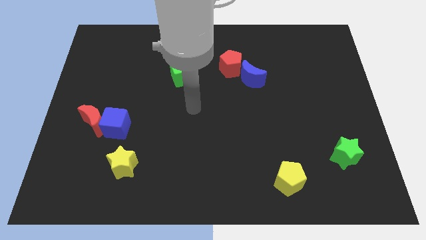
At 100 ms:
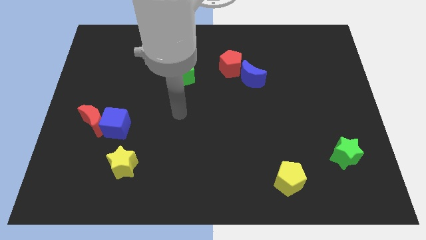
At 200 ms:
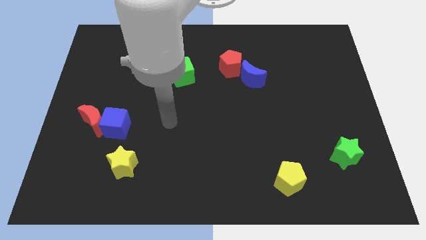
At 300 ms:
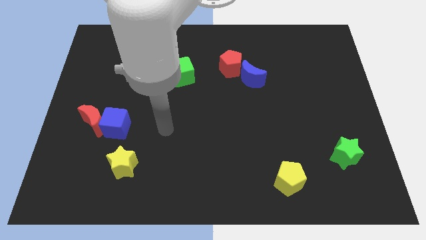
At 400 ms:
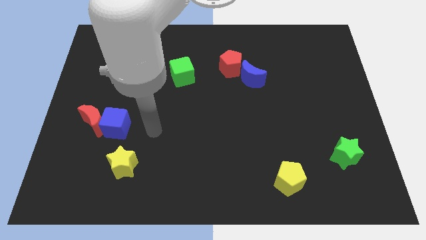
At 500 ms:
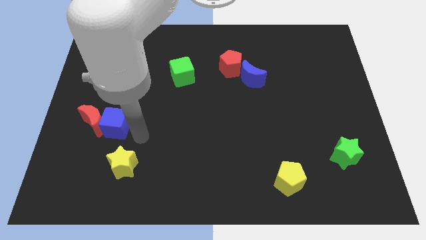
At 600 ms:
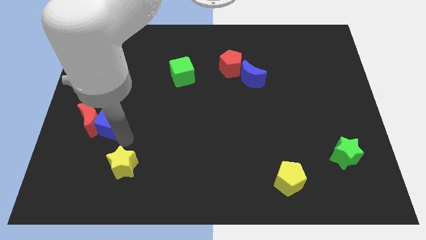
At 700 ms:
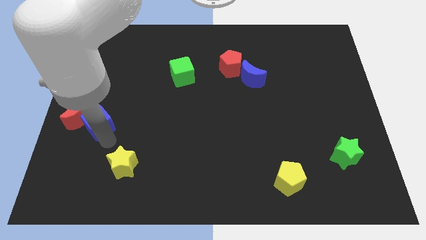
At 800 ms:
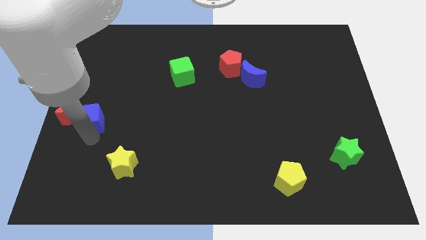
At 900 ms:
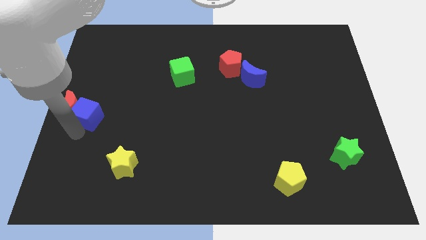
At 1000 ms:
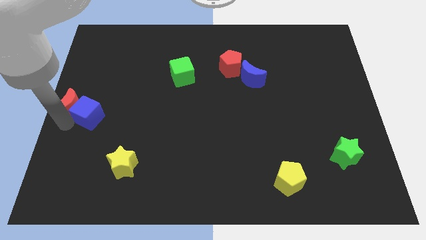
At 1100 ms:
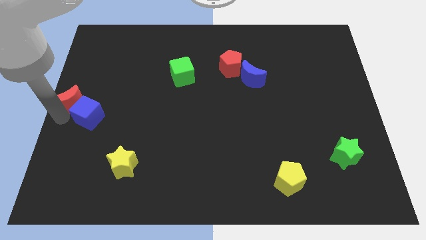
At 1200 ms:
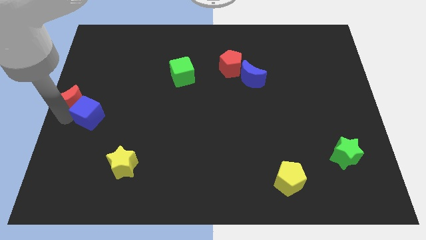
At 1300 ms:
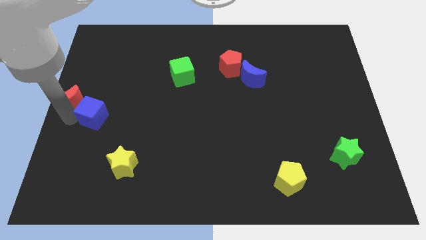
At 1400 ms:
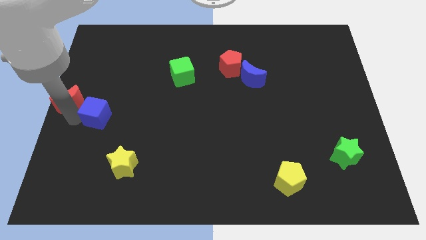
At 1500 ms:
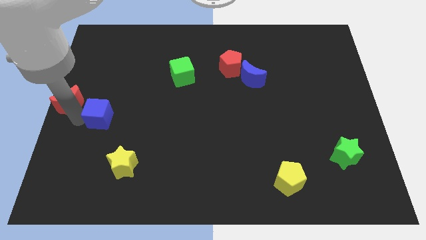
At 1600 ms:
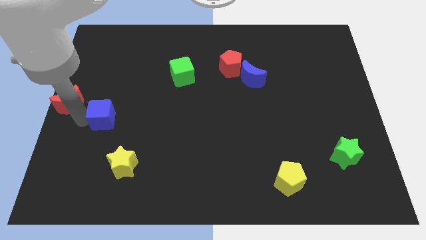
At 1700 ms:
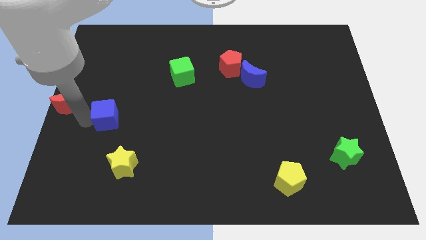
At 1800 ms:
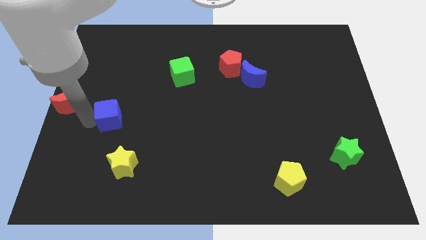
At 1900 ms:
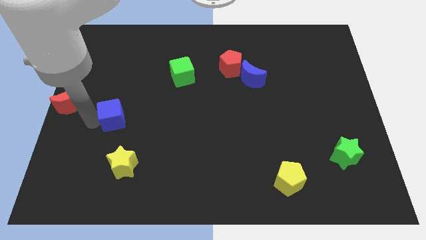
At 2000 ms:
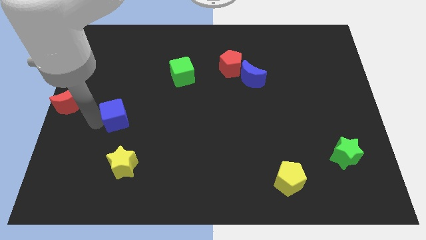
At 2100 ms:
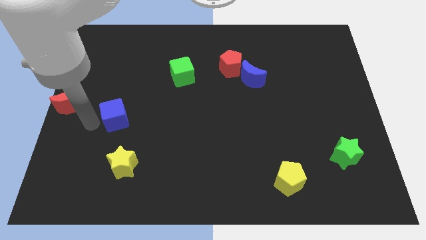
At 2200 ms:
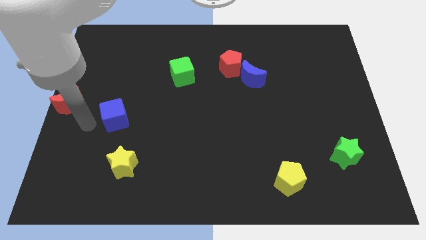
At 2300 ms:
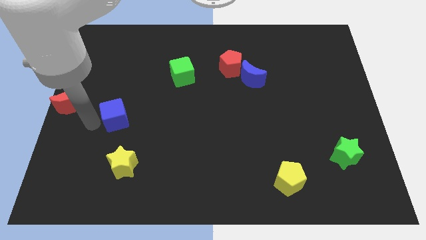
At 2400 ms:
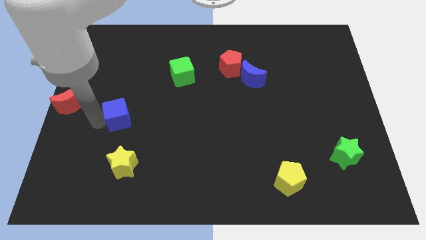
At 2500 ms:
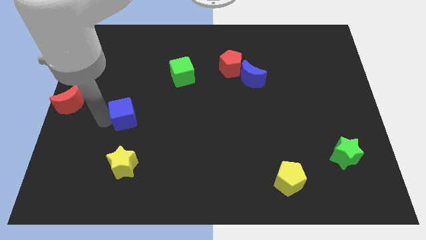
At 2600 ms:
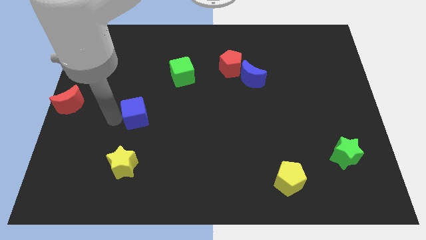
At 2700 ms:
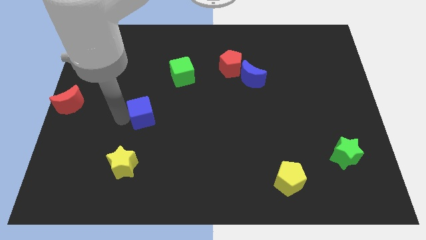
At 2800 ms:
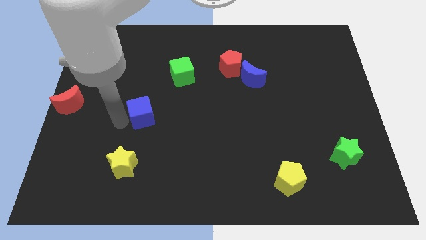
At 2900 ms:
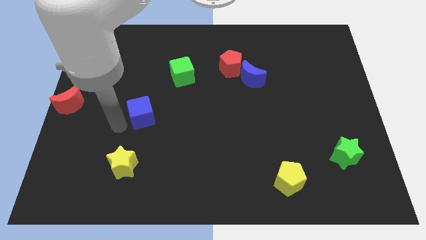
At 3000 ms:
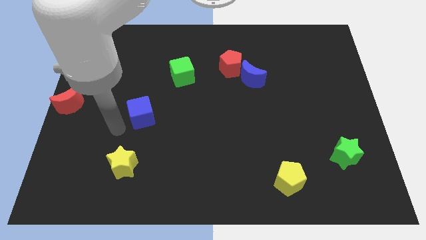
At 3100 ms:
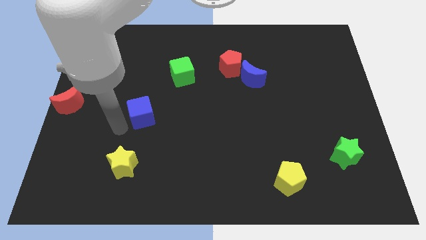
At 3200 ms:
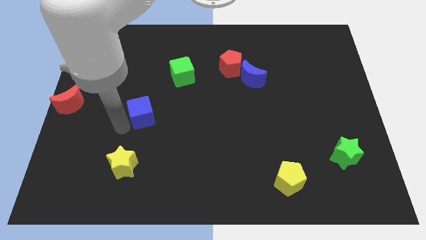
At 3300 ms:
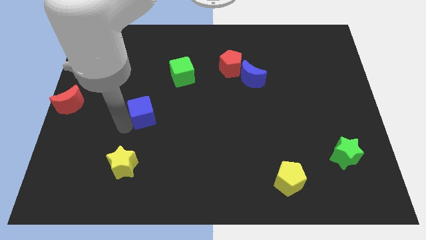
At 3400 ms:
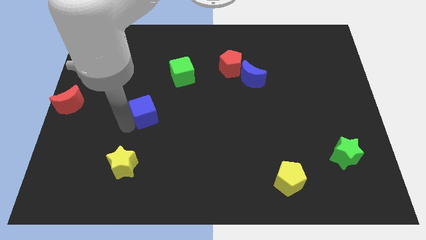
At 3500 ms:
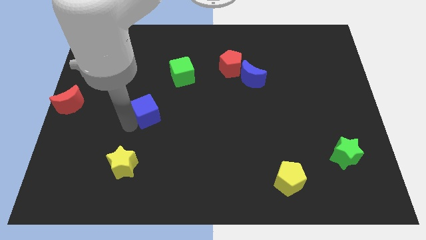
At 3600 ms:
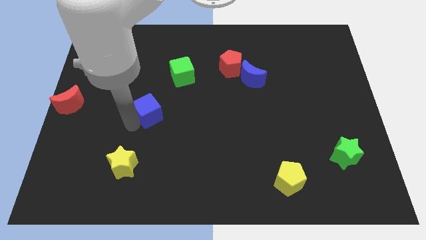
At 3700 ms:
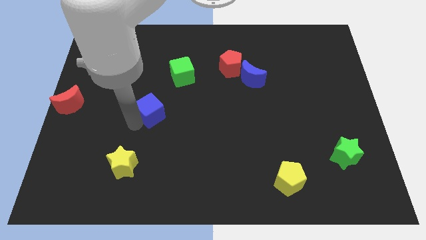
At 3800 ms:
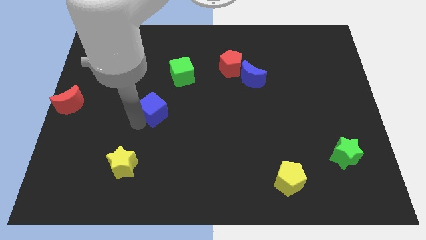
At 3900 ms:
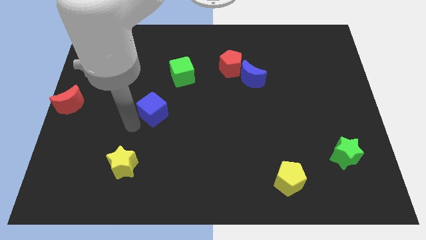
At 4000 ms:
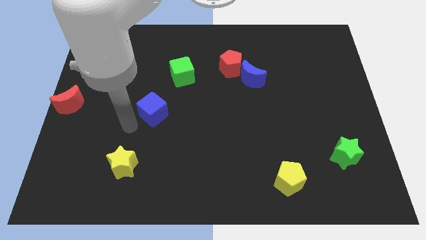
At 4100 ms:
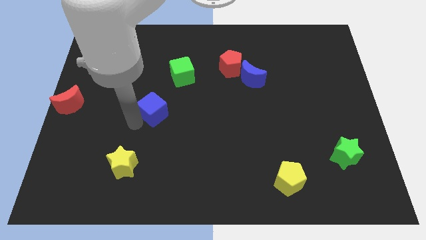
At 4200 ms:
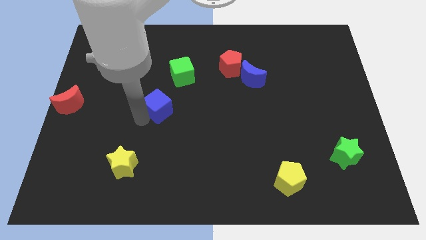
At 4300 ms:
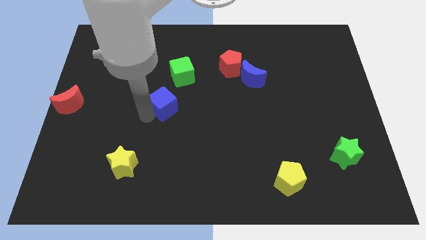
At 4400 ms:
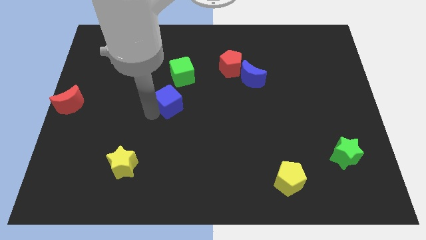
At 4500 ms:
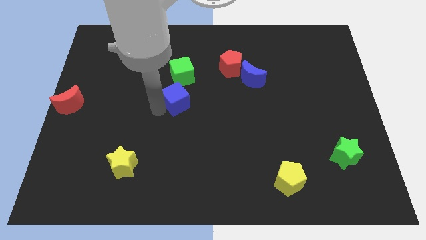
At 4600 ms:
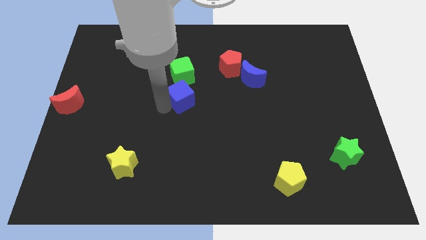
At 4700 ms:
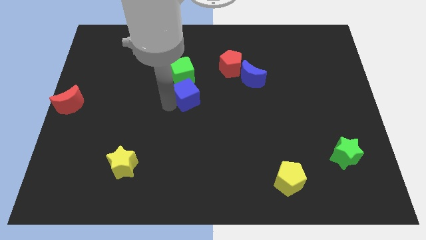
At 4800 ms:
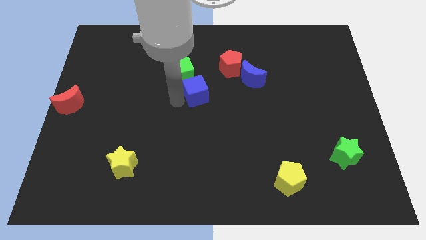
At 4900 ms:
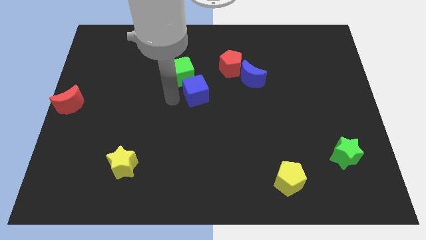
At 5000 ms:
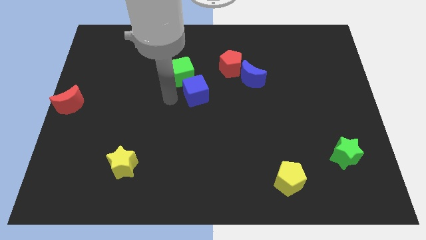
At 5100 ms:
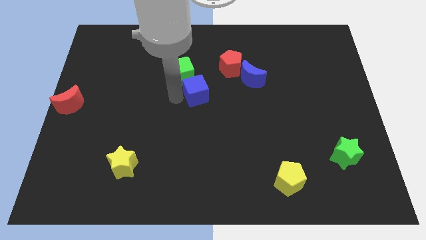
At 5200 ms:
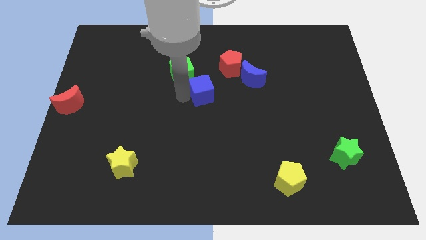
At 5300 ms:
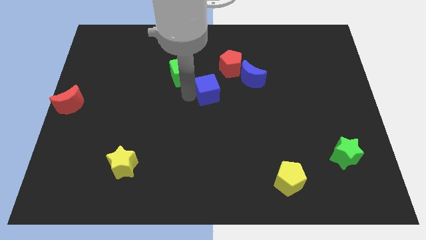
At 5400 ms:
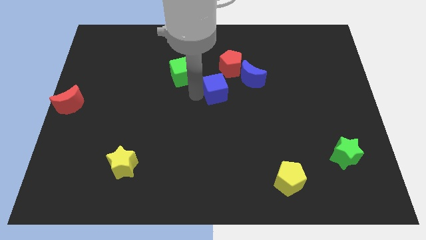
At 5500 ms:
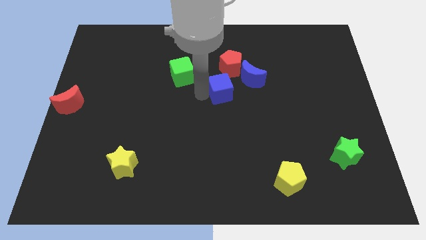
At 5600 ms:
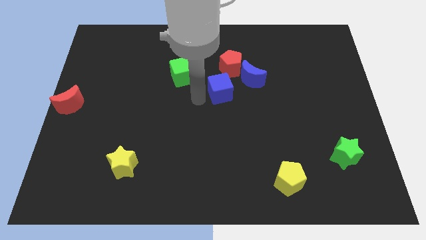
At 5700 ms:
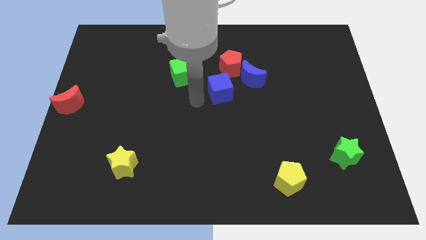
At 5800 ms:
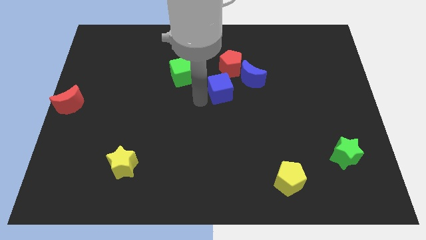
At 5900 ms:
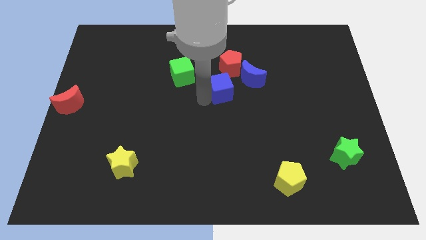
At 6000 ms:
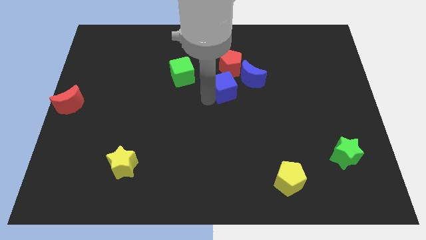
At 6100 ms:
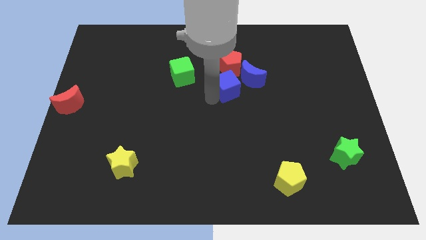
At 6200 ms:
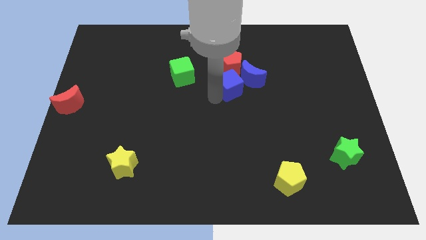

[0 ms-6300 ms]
move the blue cube to the blue moon

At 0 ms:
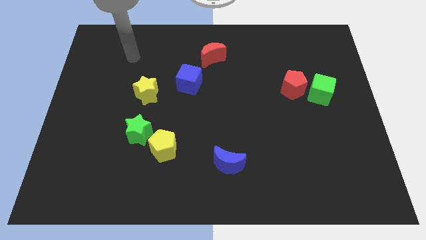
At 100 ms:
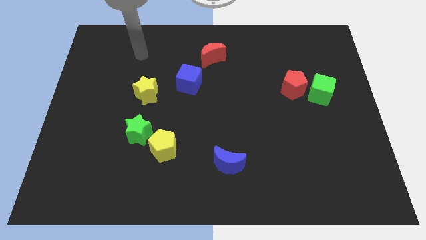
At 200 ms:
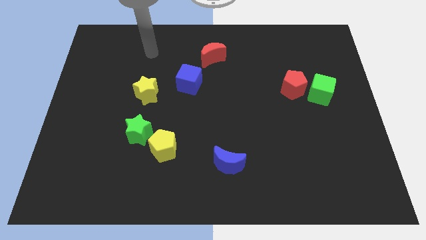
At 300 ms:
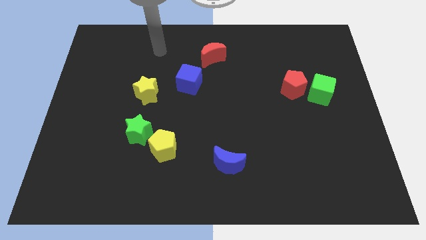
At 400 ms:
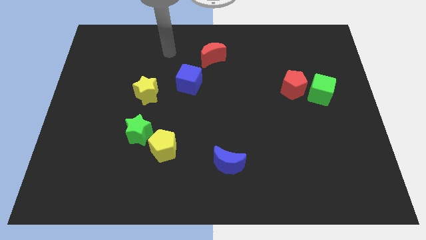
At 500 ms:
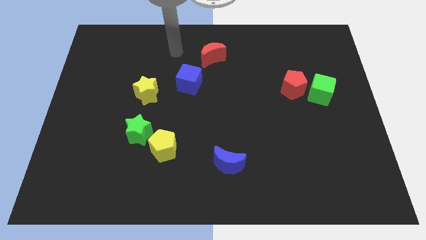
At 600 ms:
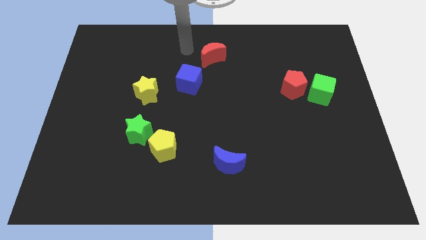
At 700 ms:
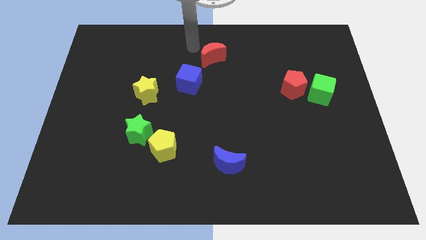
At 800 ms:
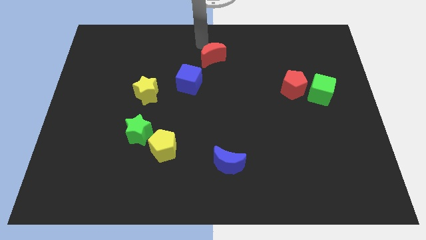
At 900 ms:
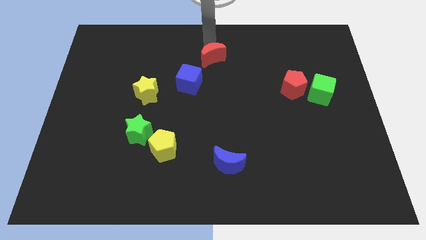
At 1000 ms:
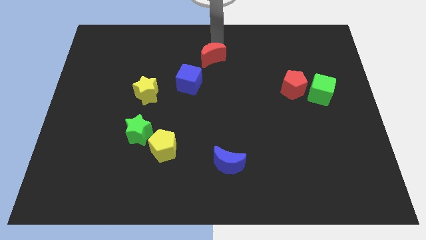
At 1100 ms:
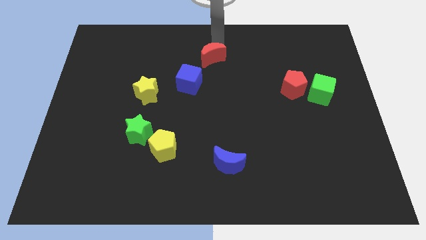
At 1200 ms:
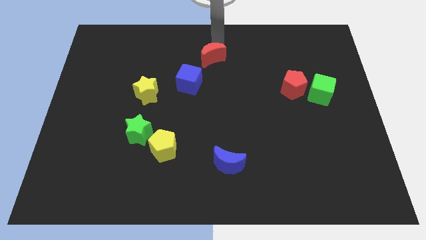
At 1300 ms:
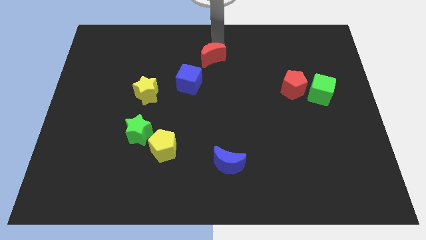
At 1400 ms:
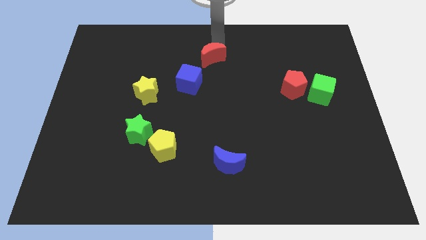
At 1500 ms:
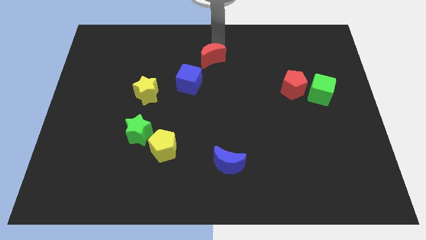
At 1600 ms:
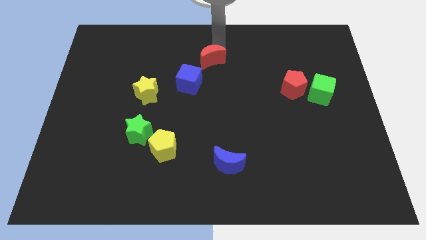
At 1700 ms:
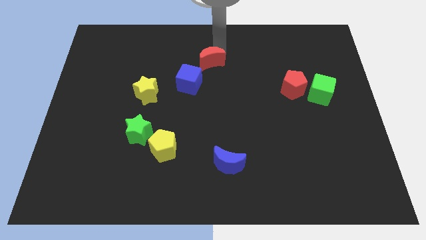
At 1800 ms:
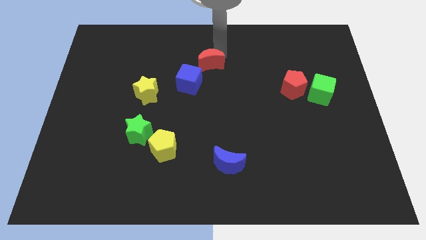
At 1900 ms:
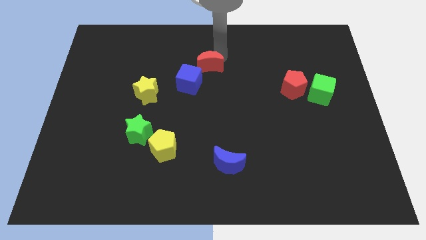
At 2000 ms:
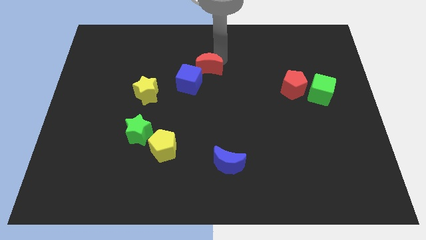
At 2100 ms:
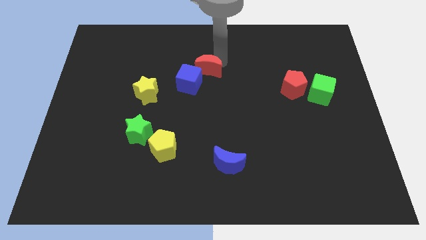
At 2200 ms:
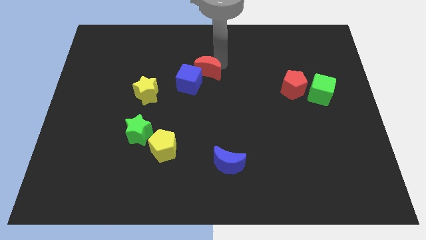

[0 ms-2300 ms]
put the red moon close to the blue cube
